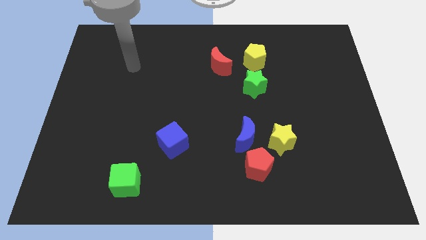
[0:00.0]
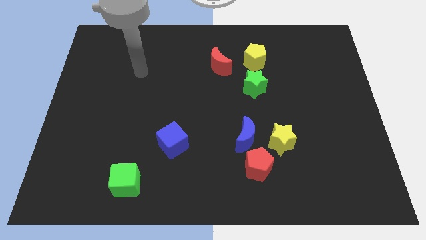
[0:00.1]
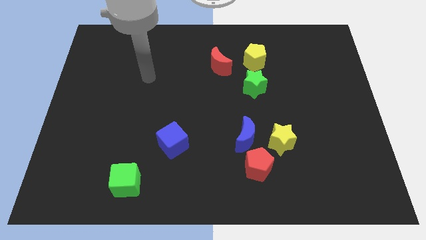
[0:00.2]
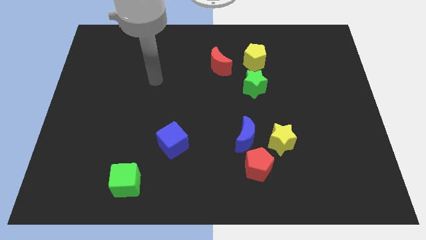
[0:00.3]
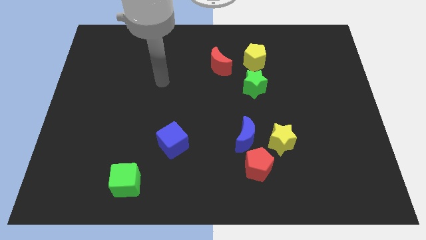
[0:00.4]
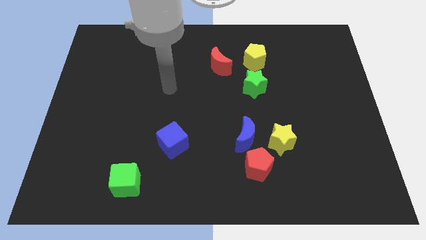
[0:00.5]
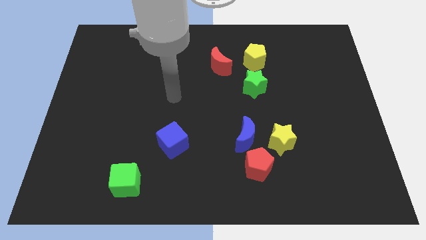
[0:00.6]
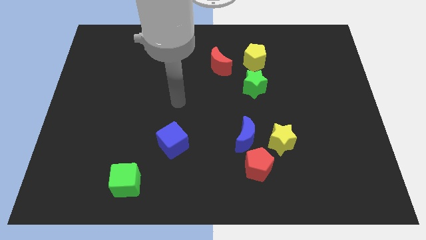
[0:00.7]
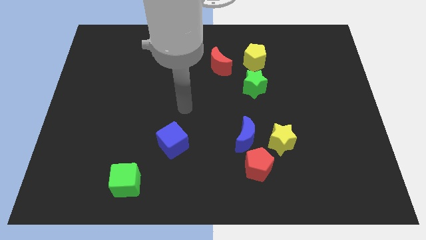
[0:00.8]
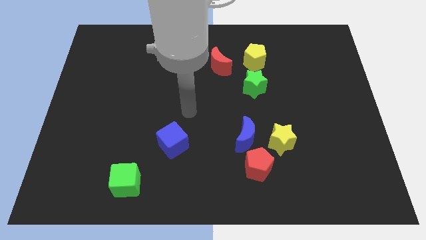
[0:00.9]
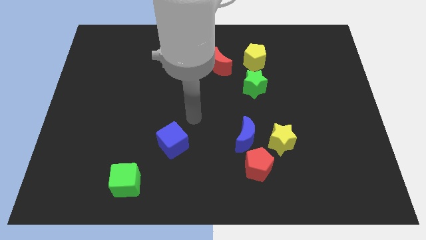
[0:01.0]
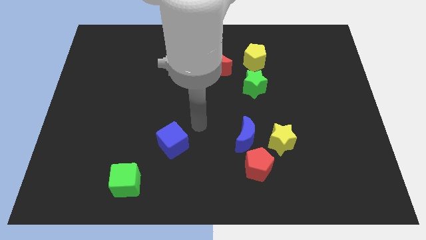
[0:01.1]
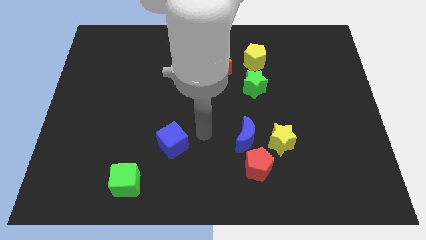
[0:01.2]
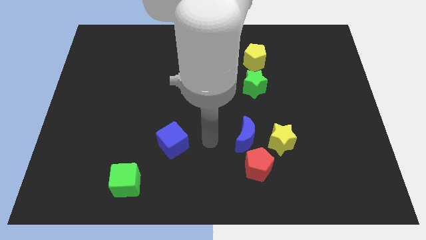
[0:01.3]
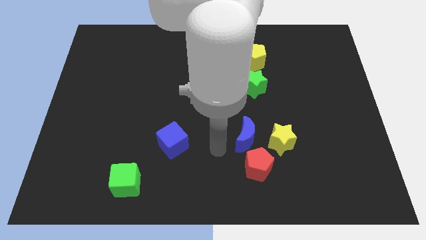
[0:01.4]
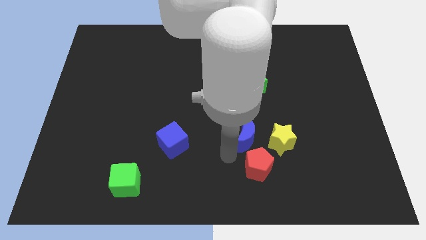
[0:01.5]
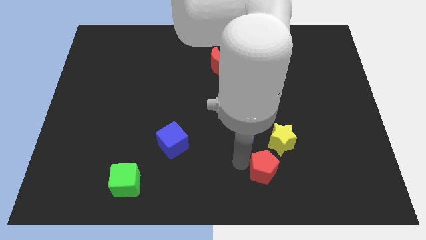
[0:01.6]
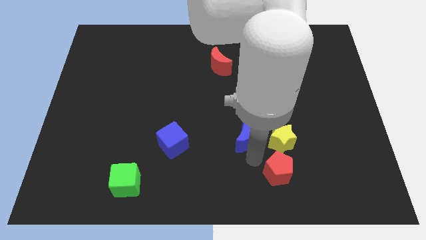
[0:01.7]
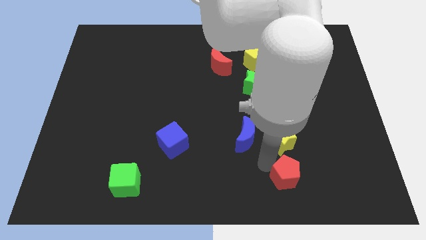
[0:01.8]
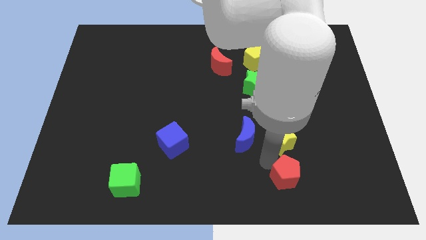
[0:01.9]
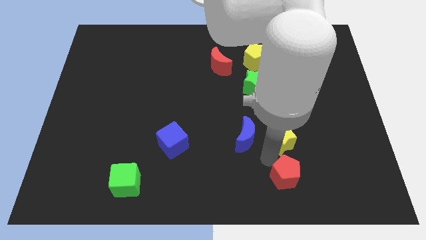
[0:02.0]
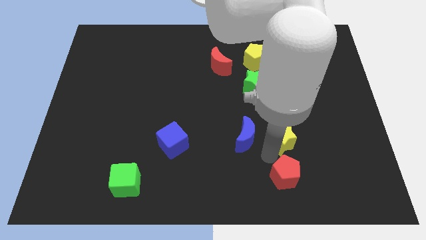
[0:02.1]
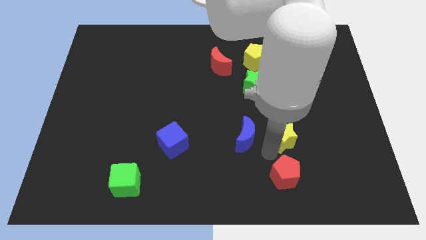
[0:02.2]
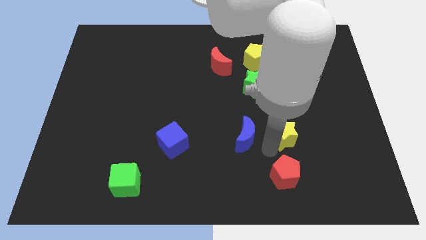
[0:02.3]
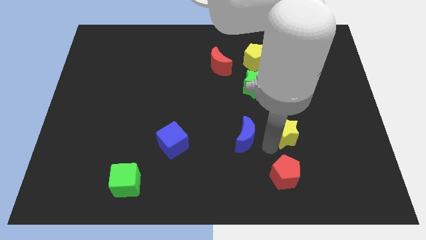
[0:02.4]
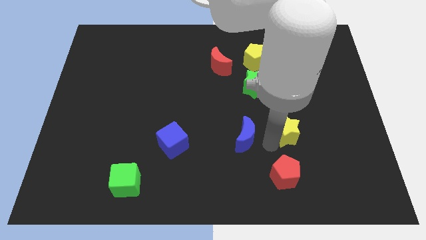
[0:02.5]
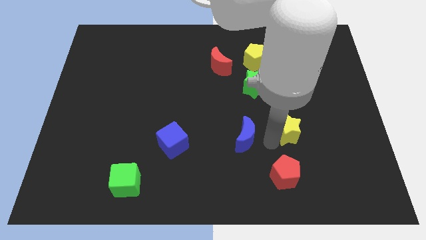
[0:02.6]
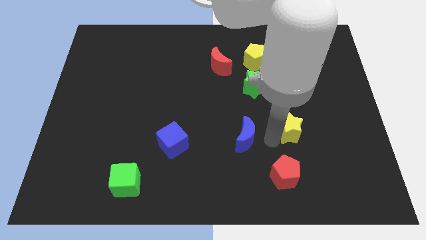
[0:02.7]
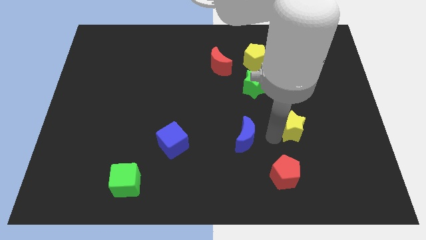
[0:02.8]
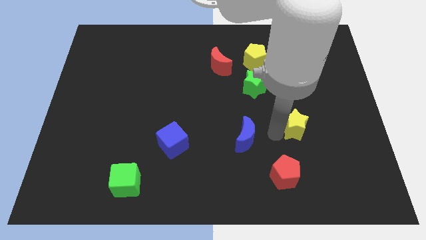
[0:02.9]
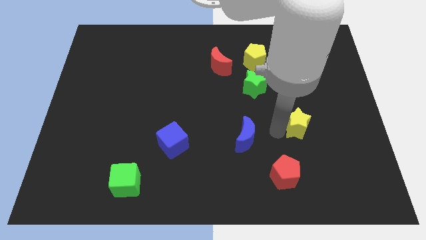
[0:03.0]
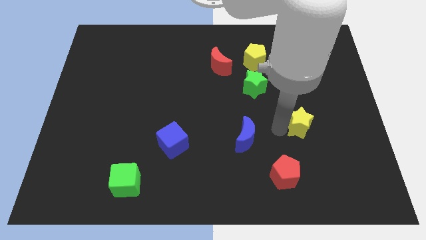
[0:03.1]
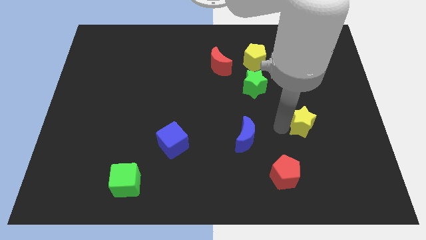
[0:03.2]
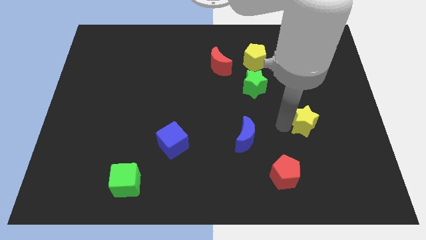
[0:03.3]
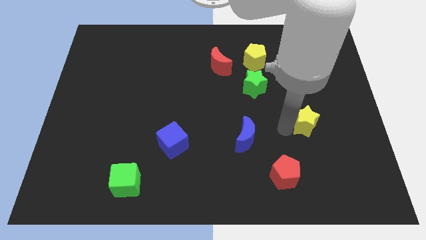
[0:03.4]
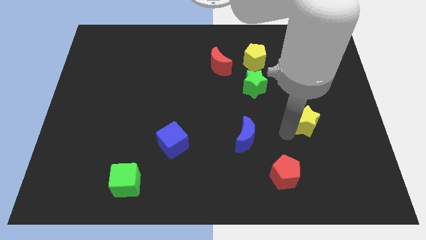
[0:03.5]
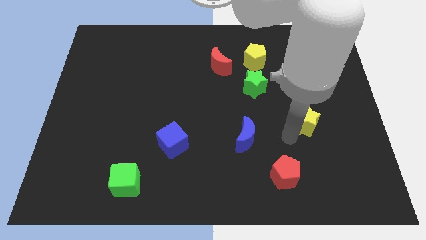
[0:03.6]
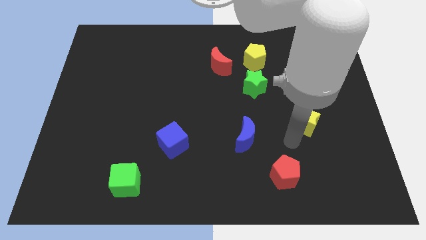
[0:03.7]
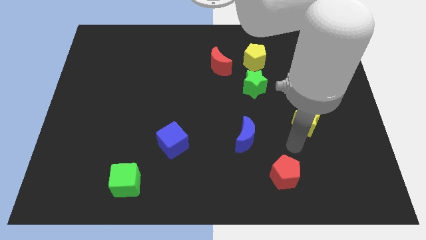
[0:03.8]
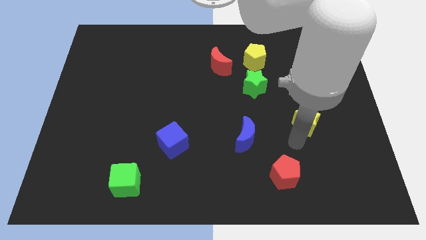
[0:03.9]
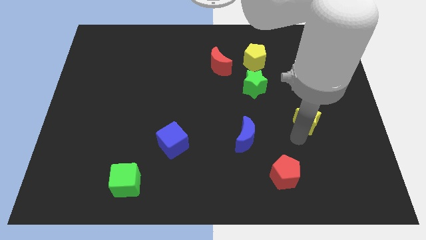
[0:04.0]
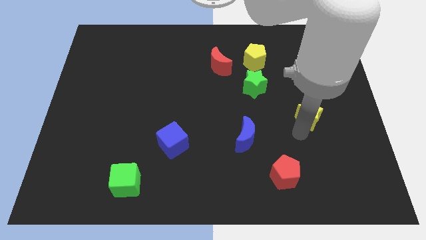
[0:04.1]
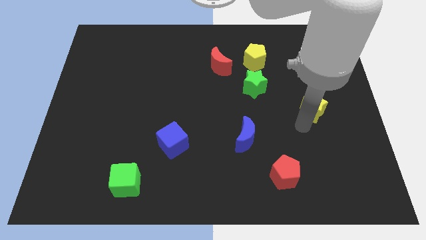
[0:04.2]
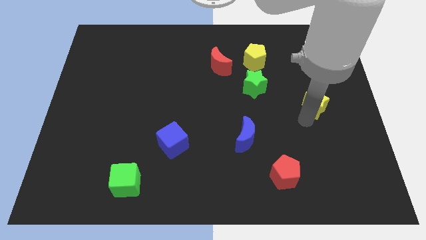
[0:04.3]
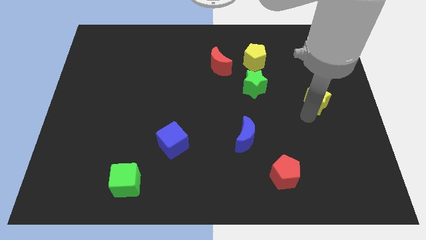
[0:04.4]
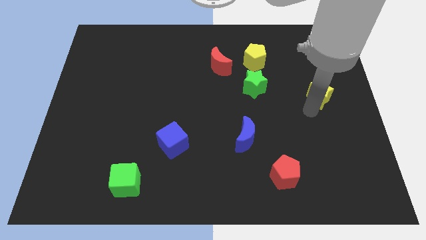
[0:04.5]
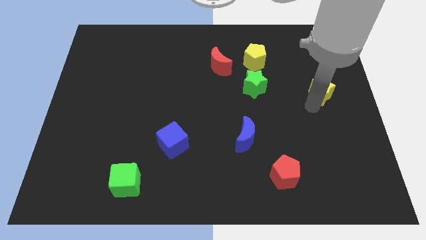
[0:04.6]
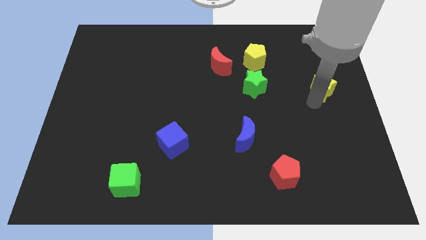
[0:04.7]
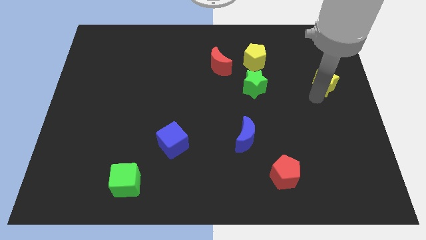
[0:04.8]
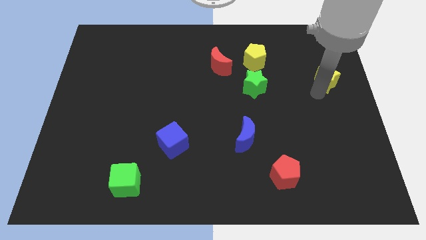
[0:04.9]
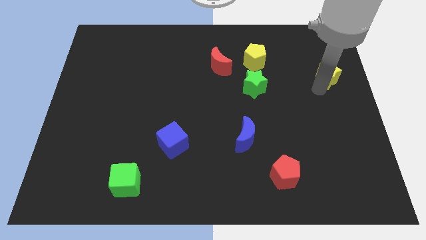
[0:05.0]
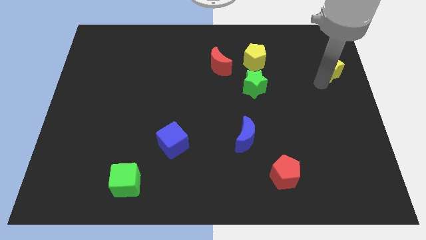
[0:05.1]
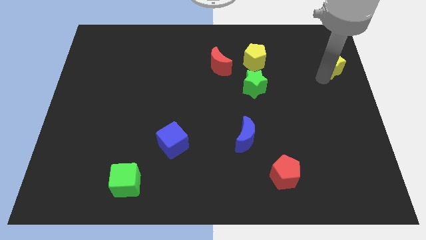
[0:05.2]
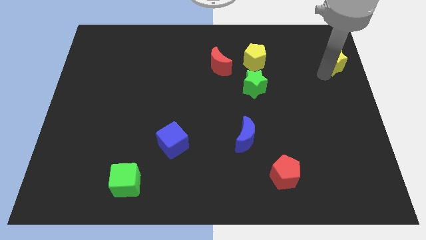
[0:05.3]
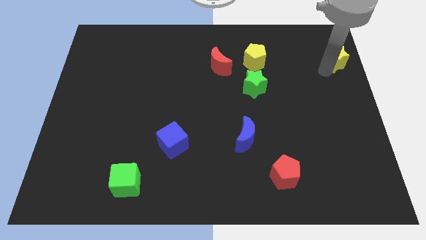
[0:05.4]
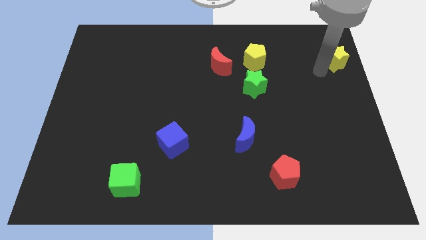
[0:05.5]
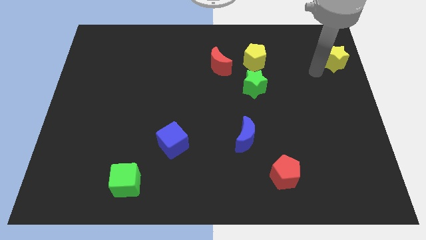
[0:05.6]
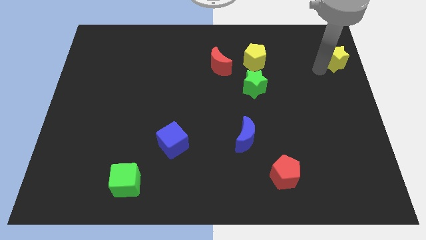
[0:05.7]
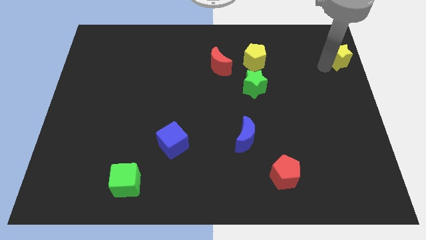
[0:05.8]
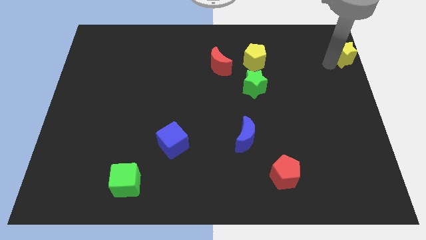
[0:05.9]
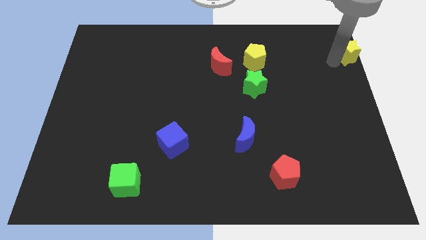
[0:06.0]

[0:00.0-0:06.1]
move the yellow star to the top right
